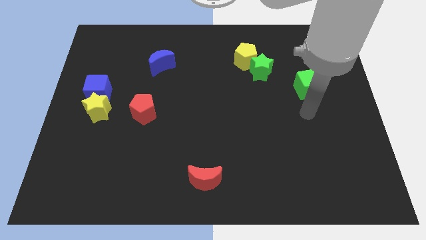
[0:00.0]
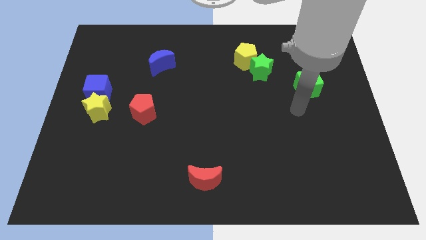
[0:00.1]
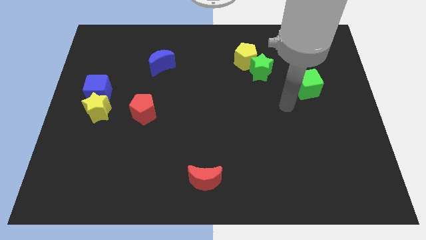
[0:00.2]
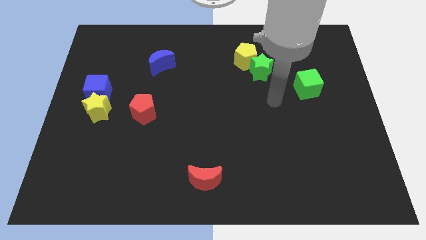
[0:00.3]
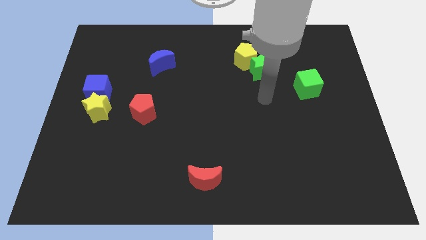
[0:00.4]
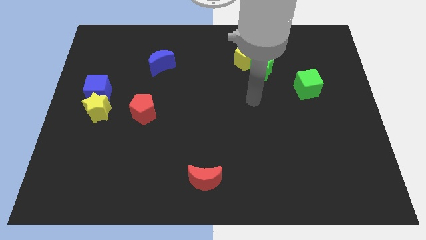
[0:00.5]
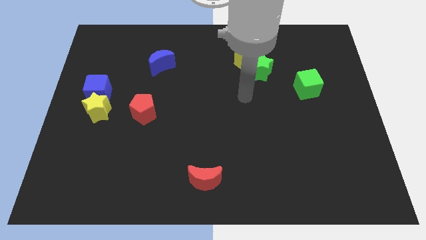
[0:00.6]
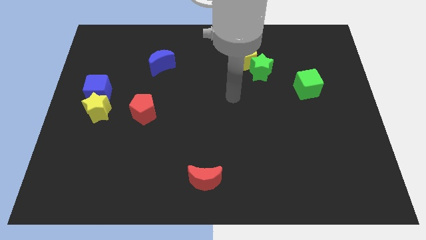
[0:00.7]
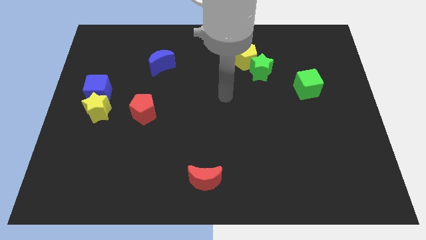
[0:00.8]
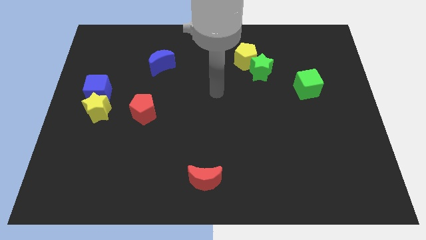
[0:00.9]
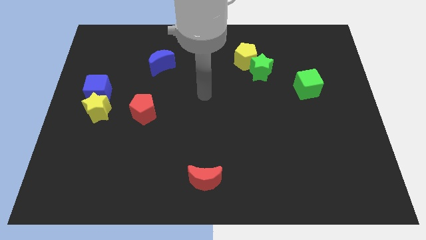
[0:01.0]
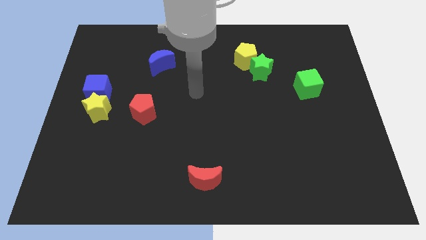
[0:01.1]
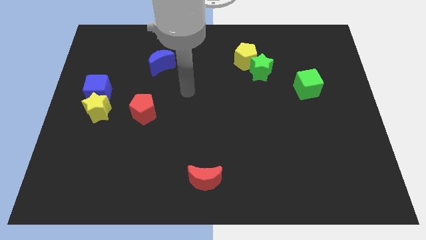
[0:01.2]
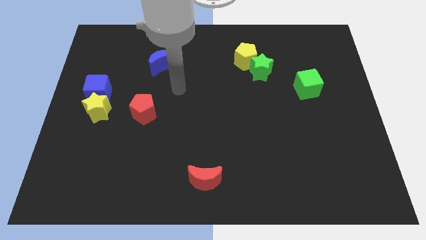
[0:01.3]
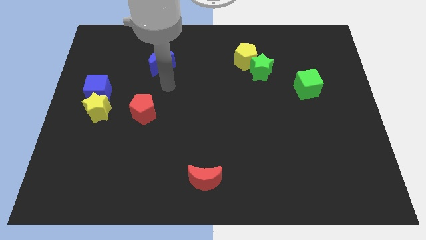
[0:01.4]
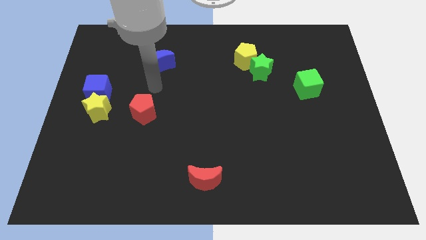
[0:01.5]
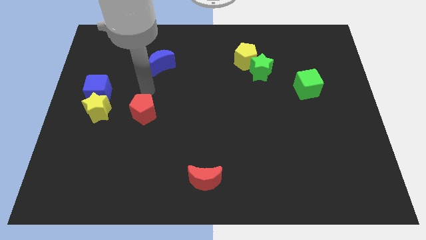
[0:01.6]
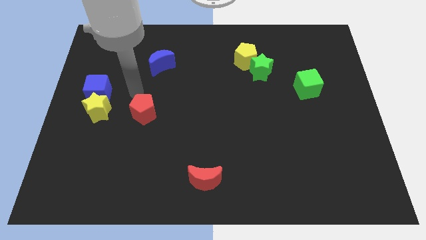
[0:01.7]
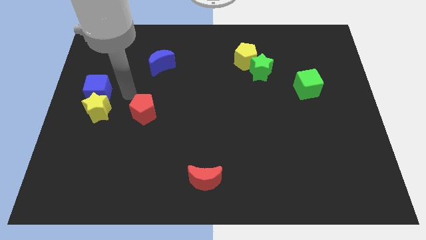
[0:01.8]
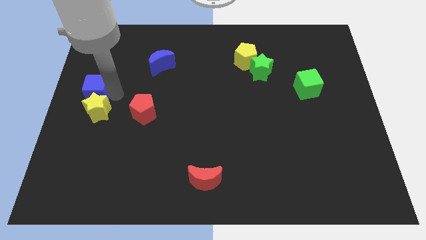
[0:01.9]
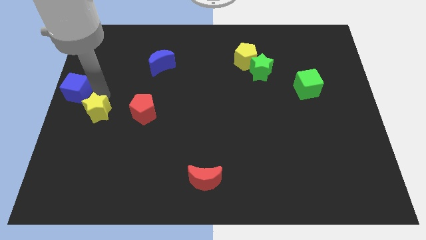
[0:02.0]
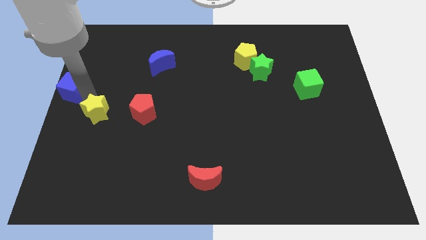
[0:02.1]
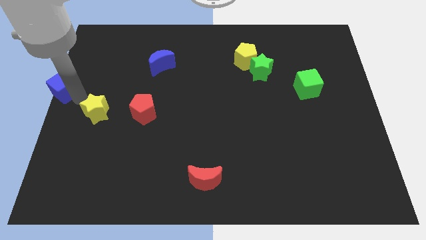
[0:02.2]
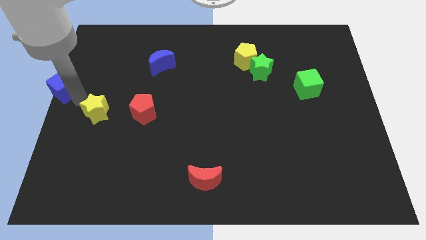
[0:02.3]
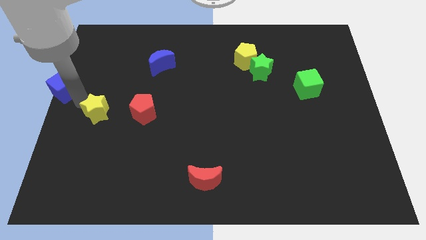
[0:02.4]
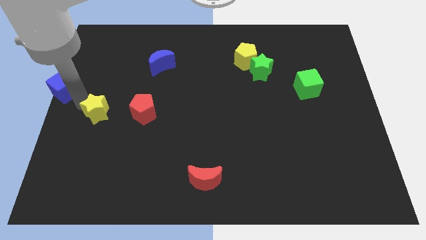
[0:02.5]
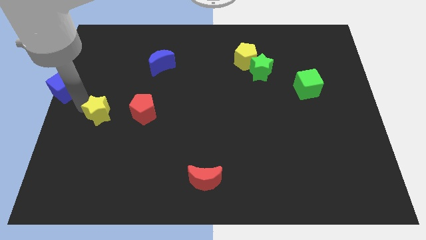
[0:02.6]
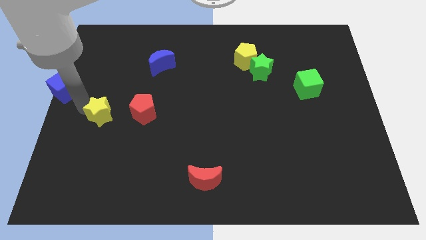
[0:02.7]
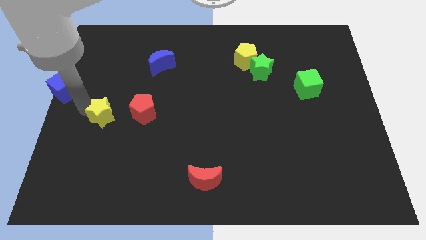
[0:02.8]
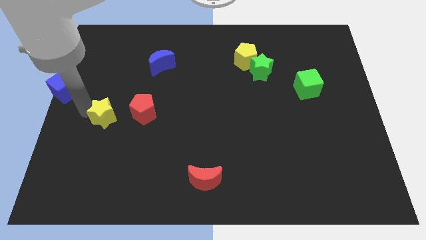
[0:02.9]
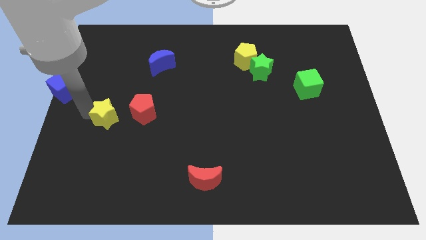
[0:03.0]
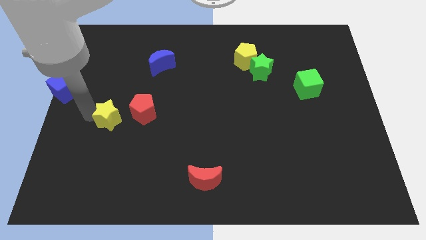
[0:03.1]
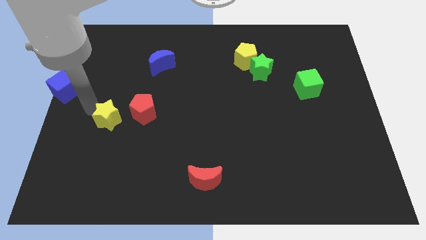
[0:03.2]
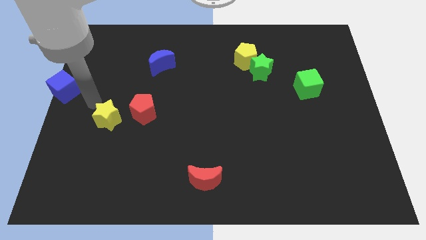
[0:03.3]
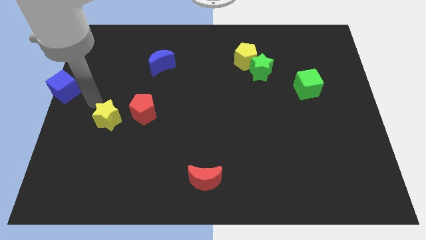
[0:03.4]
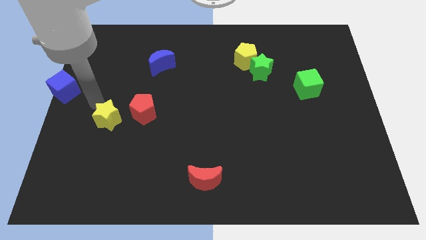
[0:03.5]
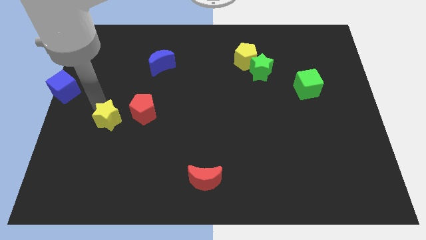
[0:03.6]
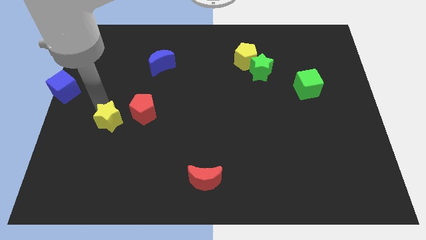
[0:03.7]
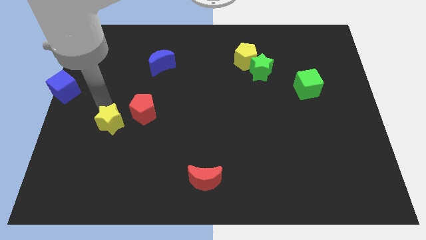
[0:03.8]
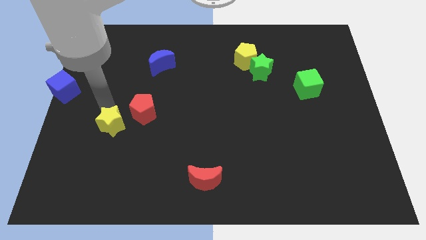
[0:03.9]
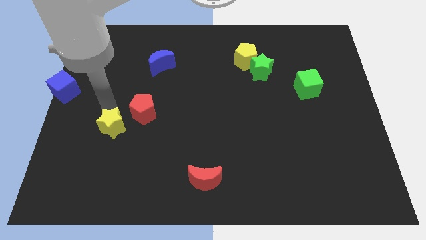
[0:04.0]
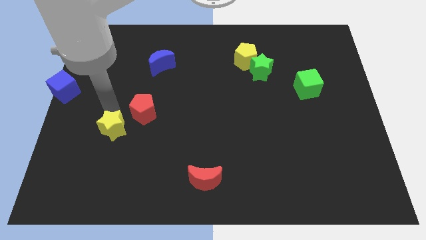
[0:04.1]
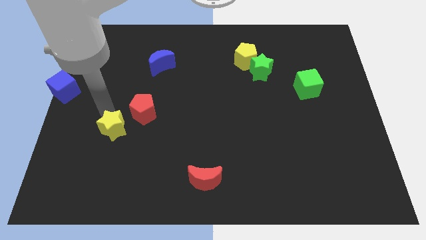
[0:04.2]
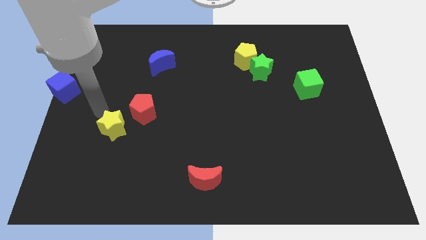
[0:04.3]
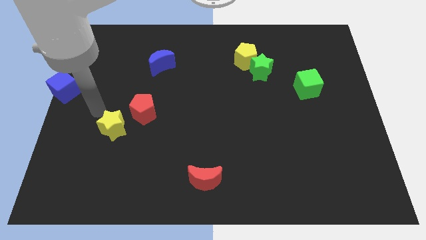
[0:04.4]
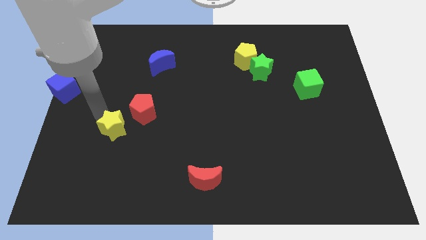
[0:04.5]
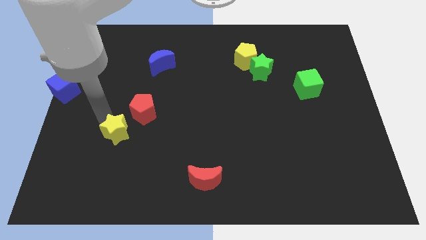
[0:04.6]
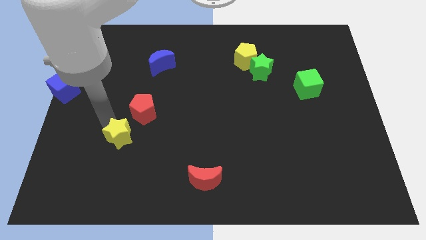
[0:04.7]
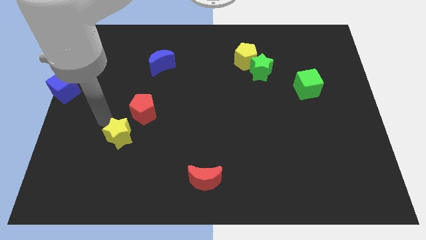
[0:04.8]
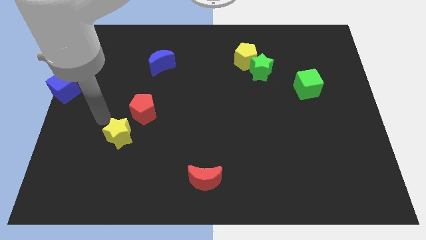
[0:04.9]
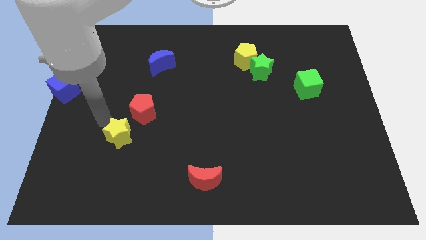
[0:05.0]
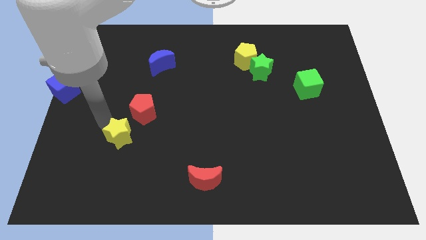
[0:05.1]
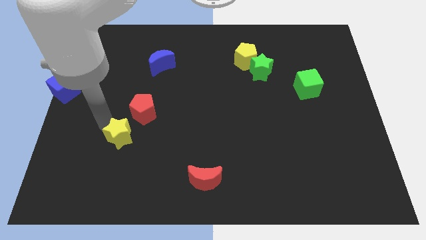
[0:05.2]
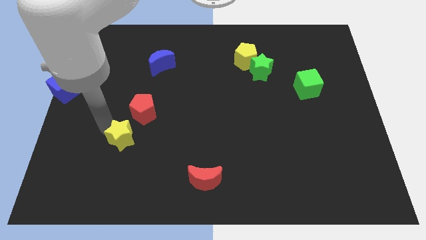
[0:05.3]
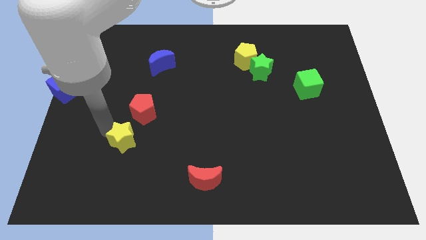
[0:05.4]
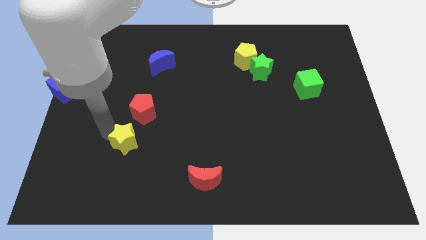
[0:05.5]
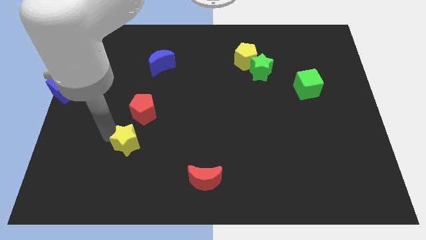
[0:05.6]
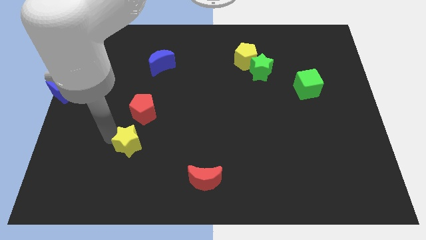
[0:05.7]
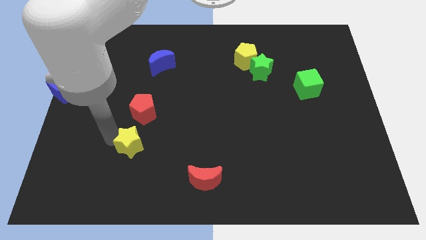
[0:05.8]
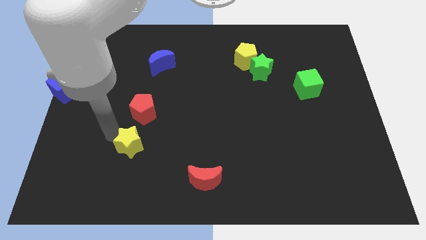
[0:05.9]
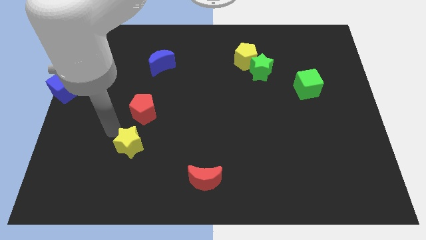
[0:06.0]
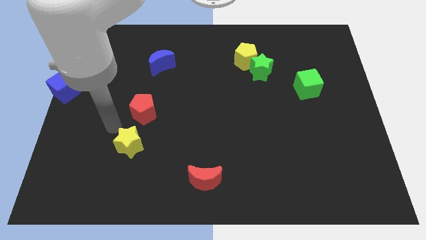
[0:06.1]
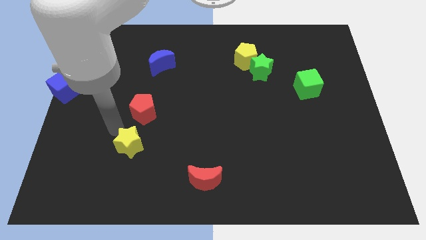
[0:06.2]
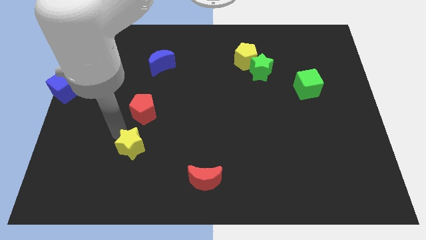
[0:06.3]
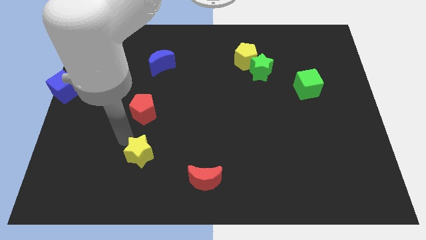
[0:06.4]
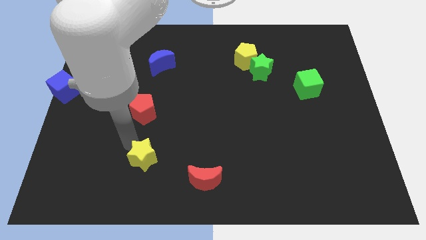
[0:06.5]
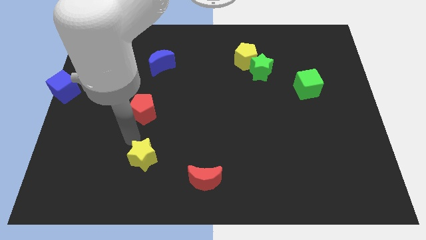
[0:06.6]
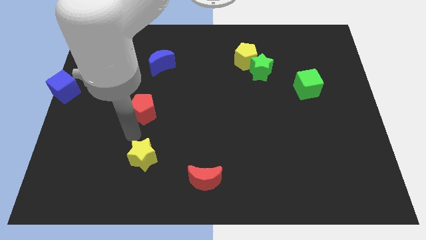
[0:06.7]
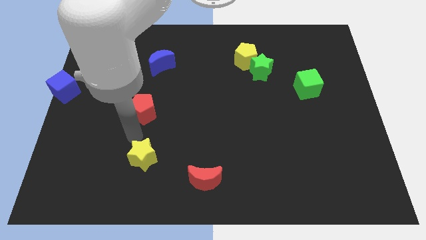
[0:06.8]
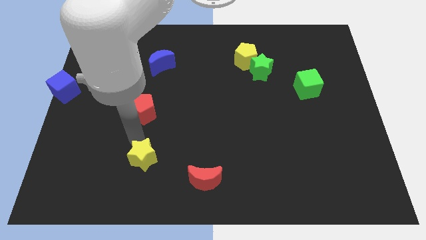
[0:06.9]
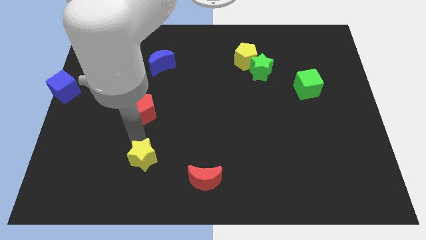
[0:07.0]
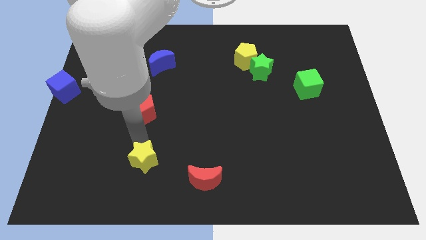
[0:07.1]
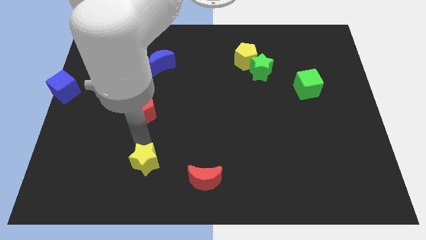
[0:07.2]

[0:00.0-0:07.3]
move the yellow star to the left side of the red moon
